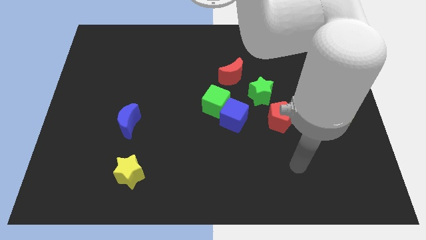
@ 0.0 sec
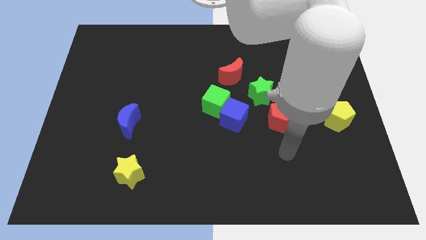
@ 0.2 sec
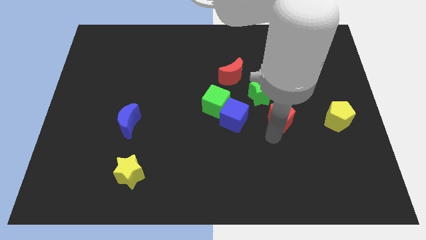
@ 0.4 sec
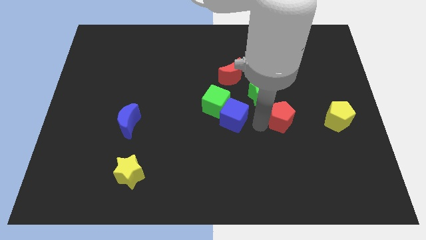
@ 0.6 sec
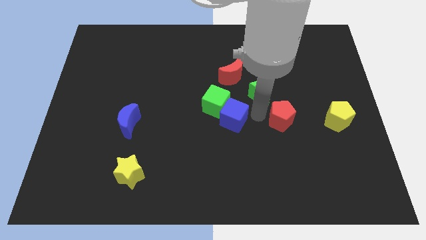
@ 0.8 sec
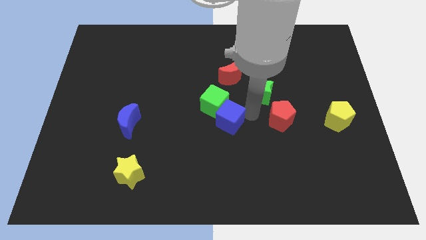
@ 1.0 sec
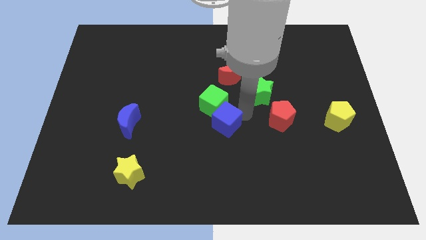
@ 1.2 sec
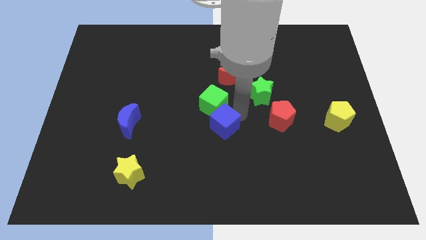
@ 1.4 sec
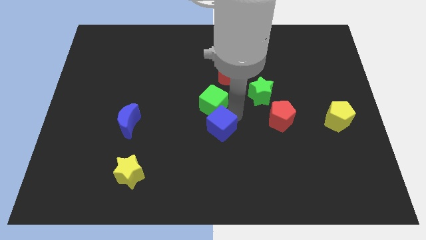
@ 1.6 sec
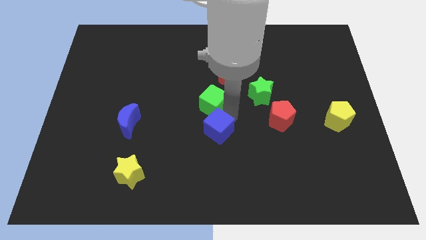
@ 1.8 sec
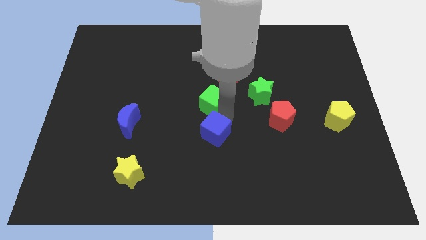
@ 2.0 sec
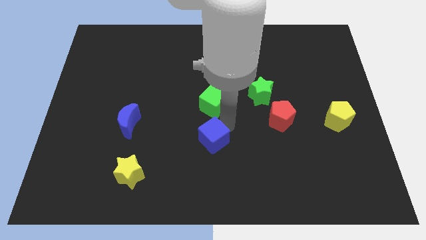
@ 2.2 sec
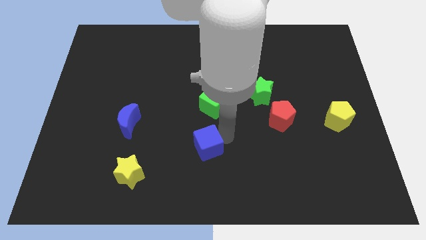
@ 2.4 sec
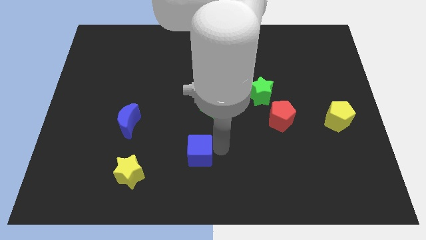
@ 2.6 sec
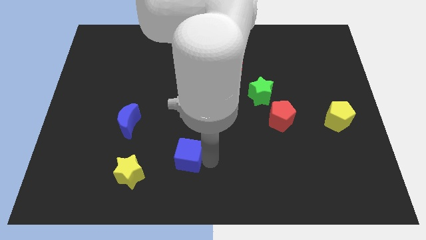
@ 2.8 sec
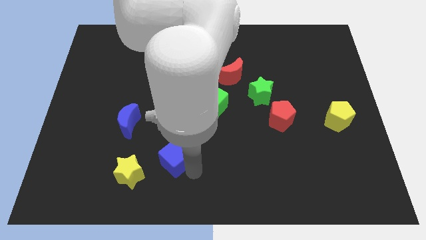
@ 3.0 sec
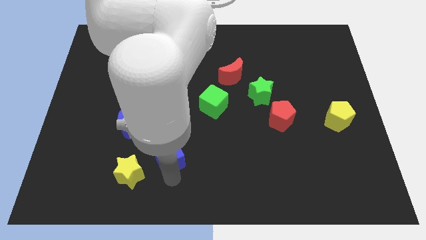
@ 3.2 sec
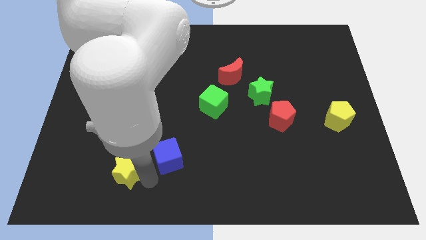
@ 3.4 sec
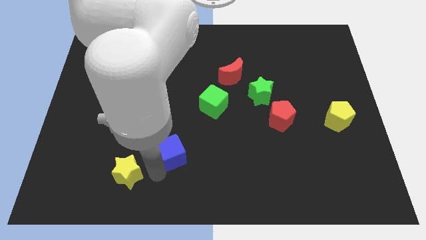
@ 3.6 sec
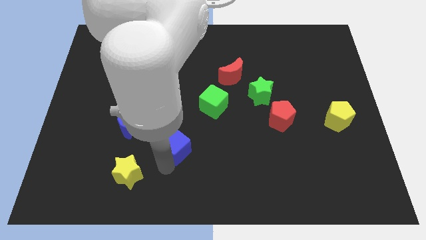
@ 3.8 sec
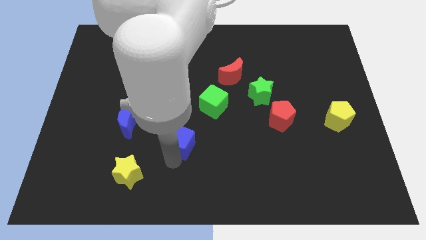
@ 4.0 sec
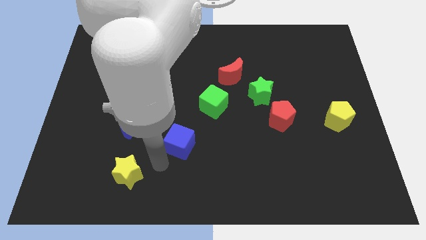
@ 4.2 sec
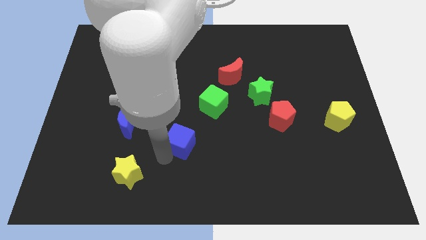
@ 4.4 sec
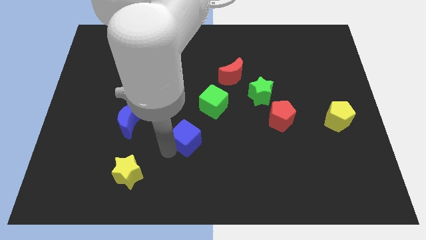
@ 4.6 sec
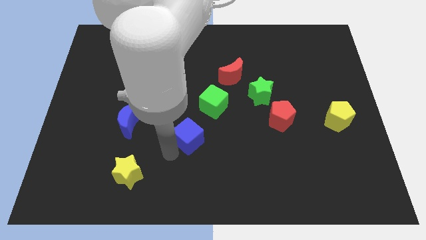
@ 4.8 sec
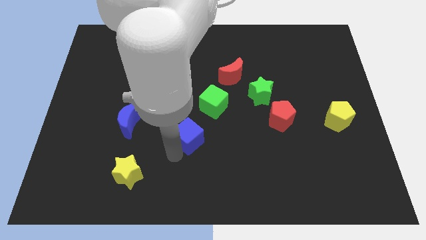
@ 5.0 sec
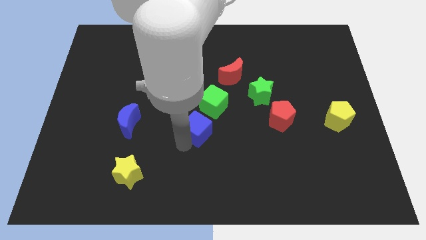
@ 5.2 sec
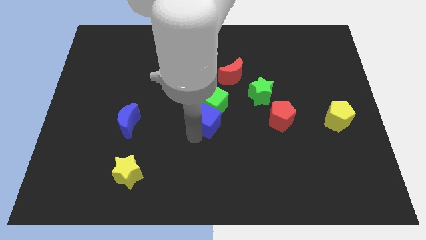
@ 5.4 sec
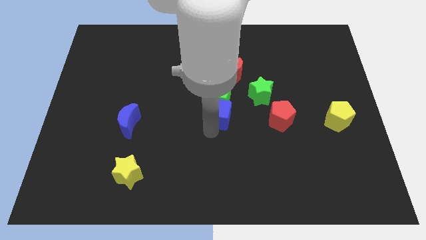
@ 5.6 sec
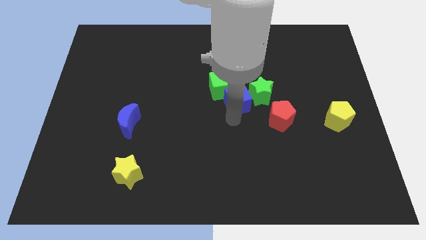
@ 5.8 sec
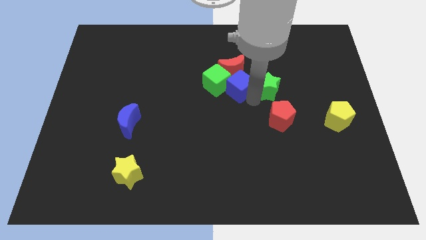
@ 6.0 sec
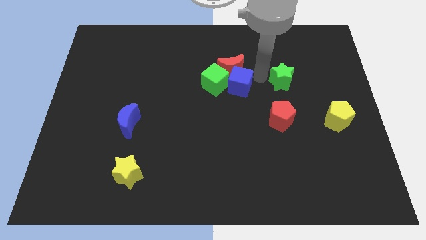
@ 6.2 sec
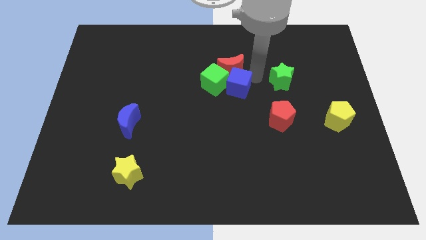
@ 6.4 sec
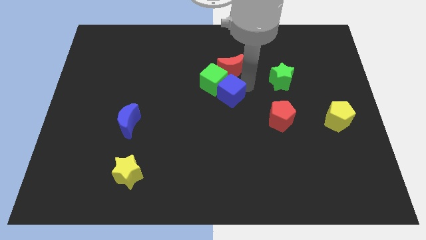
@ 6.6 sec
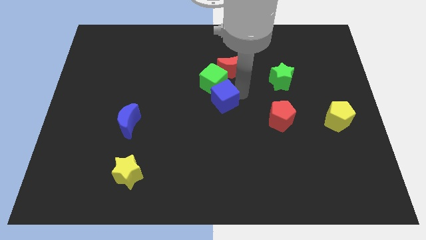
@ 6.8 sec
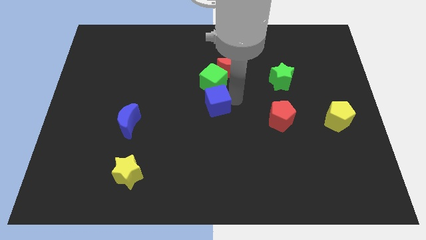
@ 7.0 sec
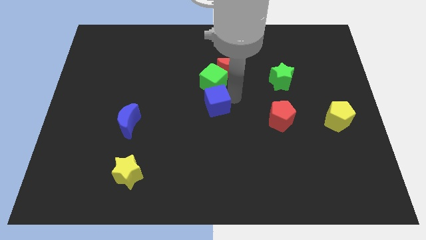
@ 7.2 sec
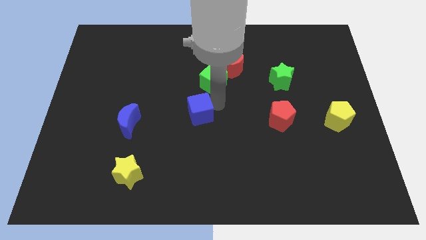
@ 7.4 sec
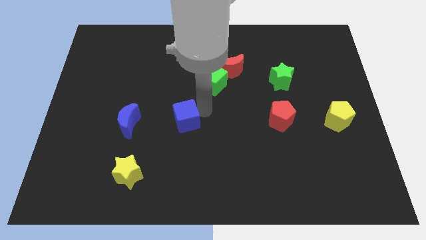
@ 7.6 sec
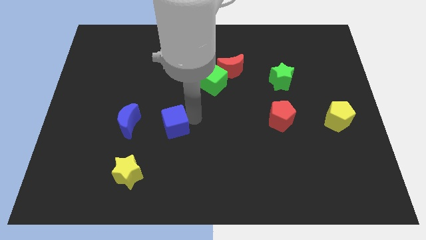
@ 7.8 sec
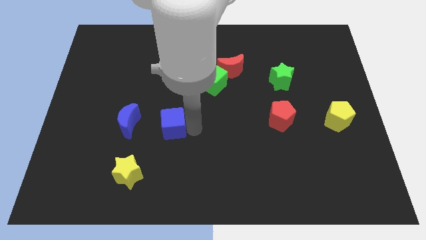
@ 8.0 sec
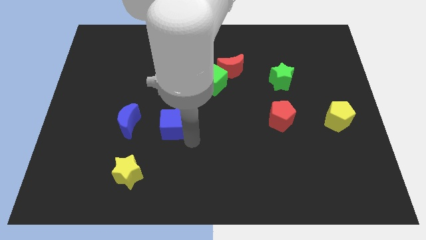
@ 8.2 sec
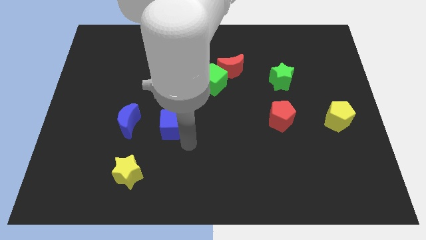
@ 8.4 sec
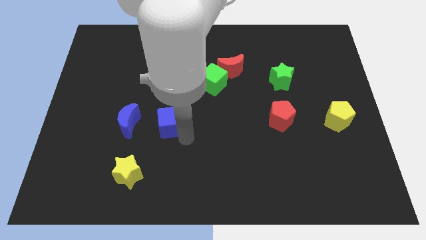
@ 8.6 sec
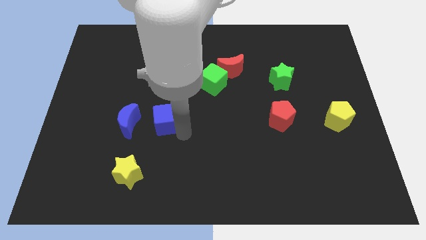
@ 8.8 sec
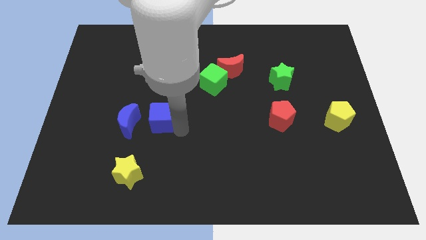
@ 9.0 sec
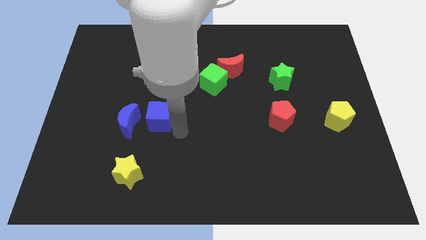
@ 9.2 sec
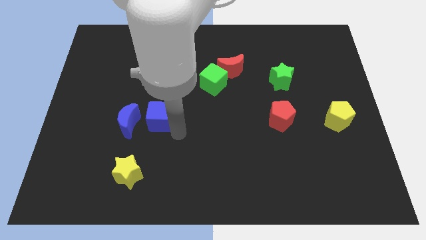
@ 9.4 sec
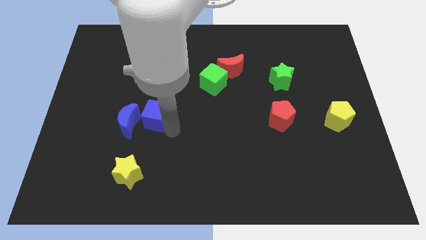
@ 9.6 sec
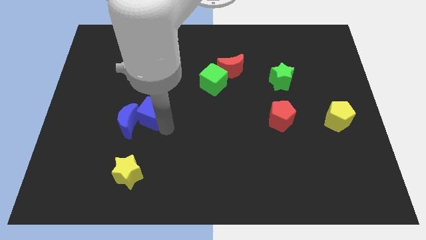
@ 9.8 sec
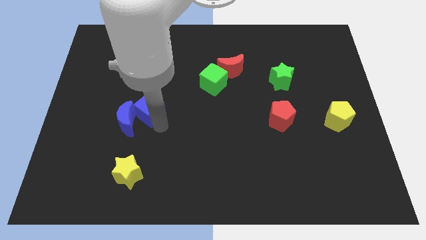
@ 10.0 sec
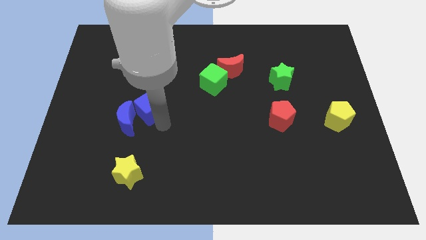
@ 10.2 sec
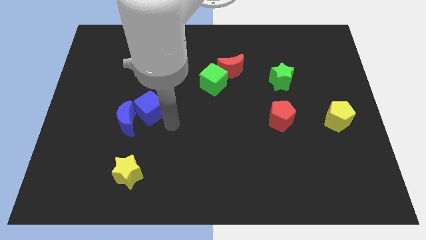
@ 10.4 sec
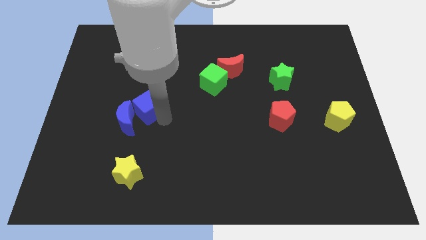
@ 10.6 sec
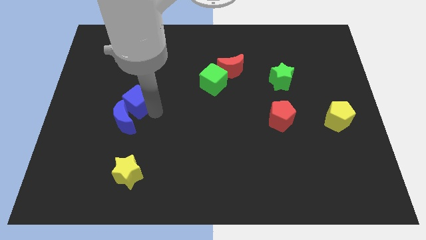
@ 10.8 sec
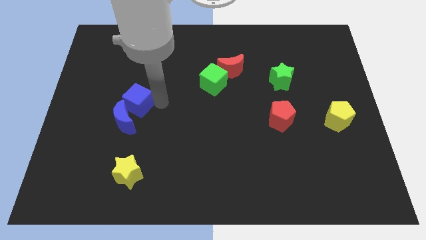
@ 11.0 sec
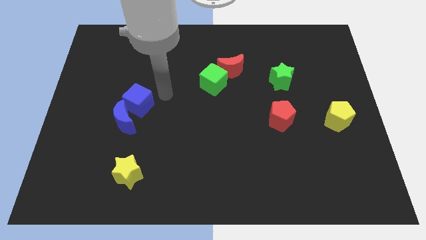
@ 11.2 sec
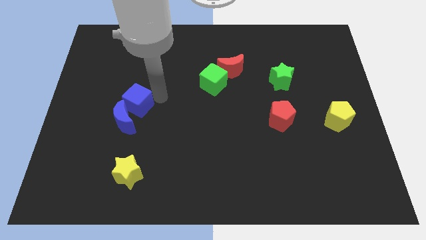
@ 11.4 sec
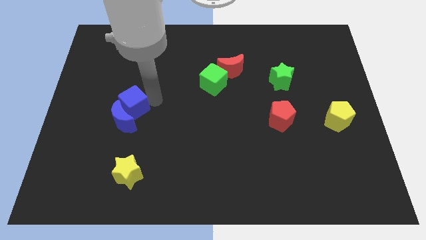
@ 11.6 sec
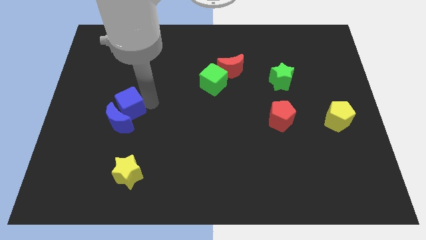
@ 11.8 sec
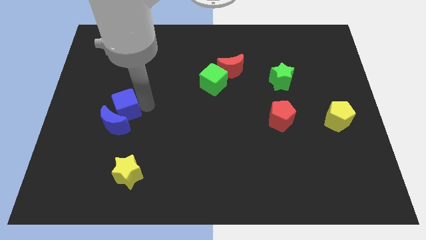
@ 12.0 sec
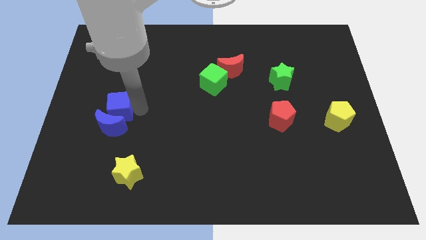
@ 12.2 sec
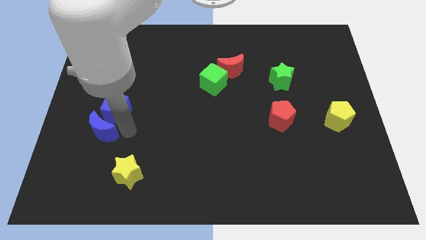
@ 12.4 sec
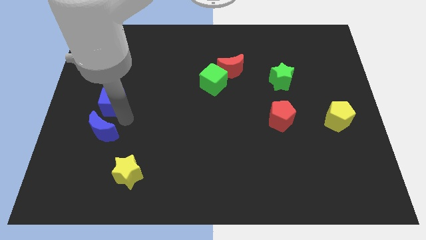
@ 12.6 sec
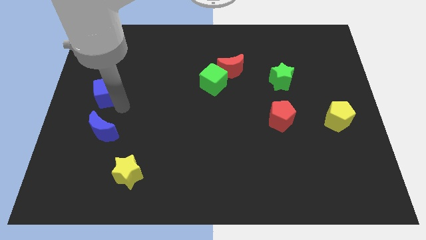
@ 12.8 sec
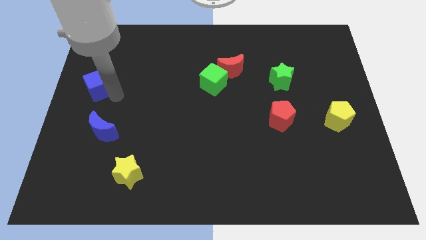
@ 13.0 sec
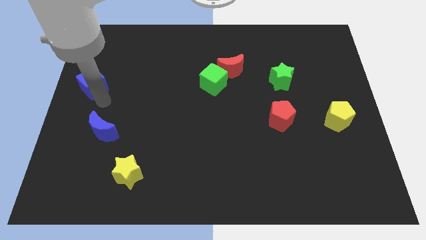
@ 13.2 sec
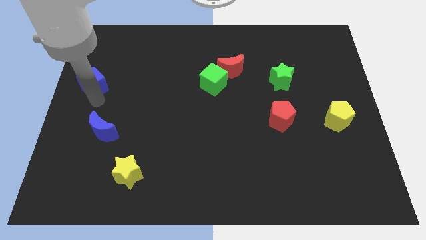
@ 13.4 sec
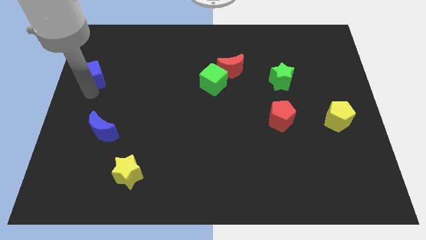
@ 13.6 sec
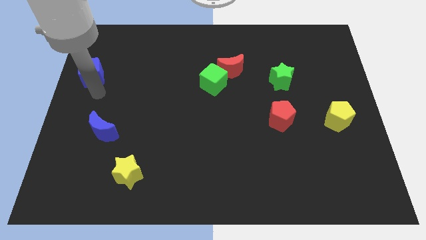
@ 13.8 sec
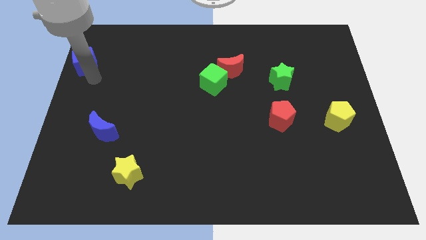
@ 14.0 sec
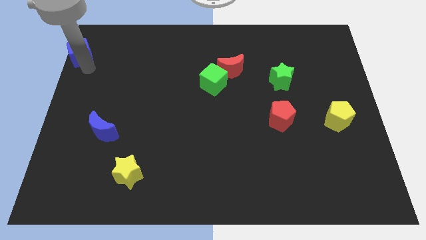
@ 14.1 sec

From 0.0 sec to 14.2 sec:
slide the blue cube to the top left
